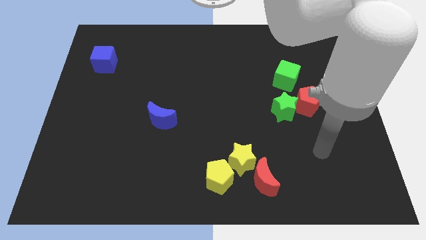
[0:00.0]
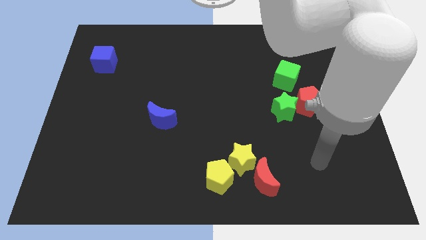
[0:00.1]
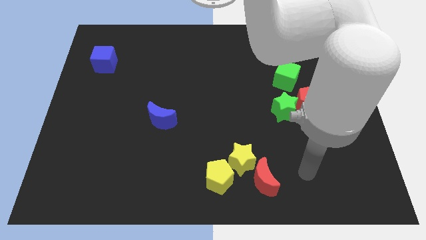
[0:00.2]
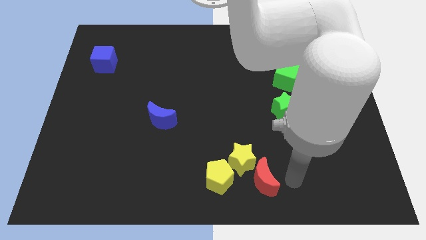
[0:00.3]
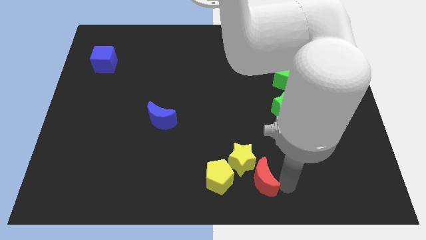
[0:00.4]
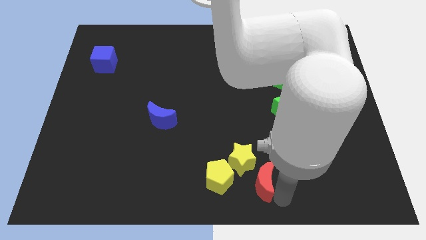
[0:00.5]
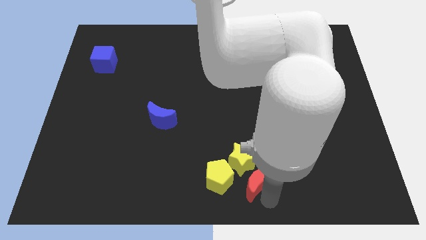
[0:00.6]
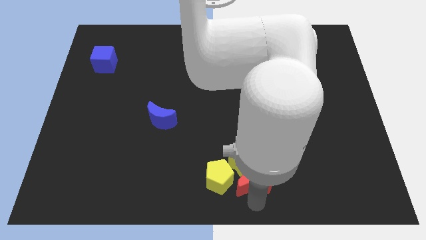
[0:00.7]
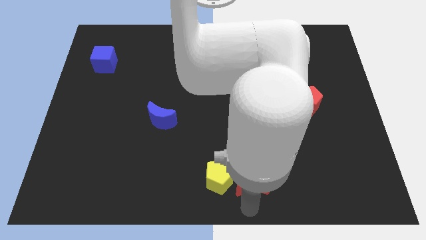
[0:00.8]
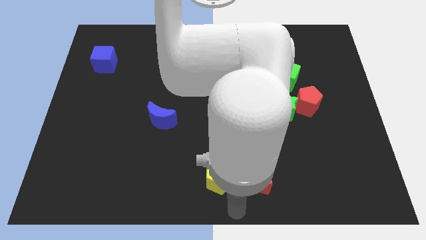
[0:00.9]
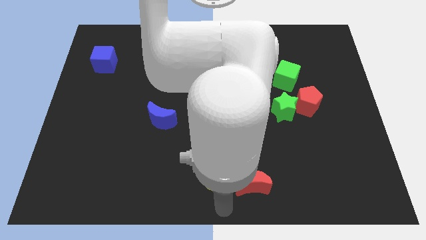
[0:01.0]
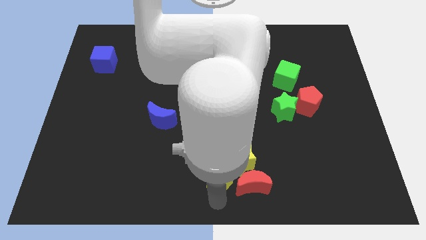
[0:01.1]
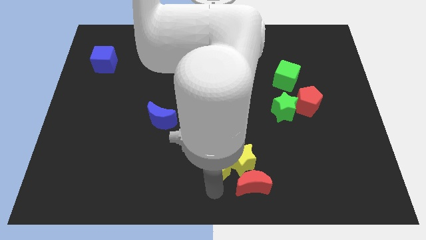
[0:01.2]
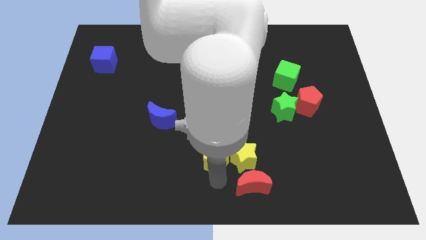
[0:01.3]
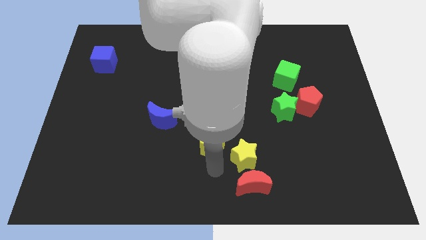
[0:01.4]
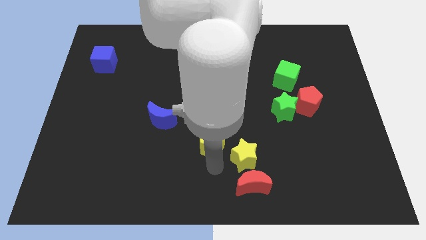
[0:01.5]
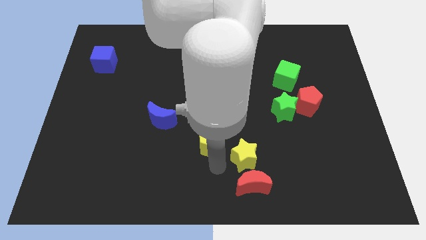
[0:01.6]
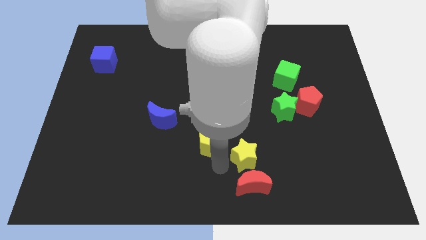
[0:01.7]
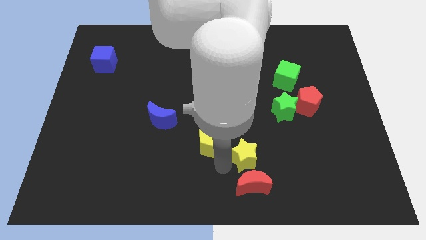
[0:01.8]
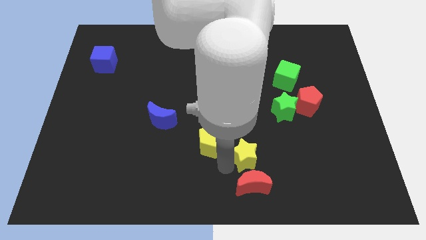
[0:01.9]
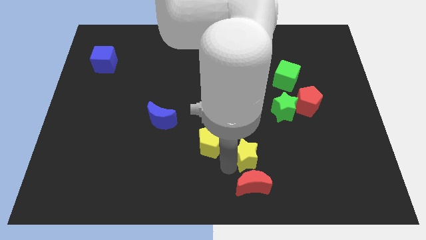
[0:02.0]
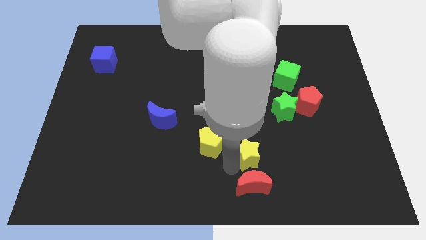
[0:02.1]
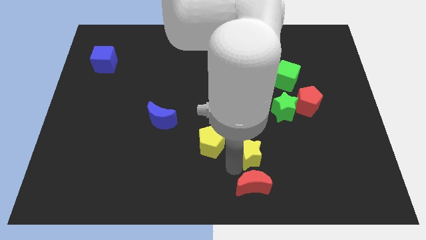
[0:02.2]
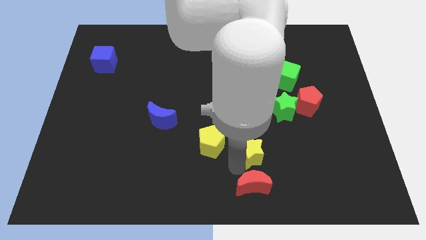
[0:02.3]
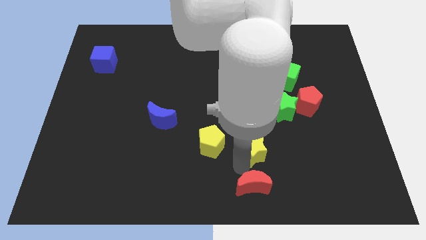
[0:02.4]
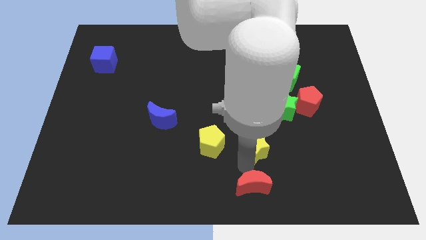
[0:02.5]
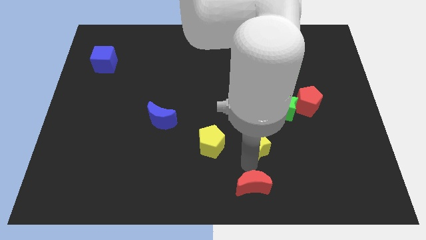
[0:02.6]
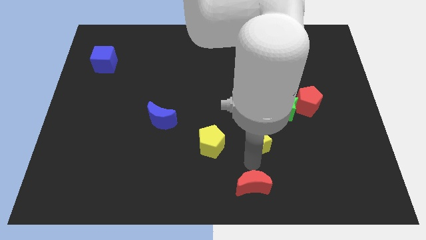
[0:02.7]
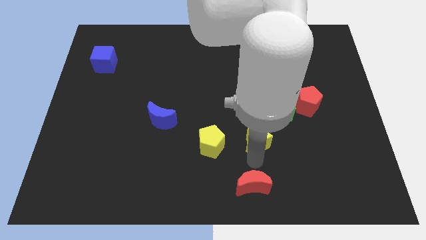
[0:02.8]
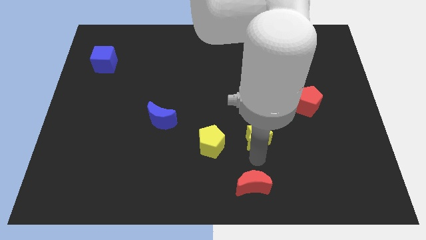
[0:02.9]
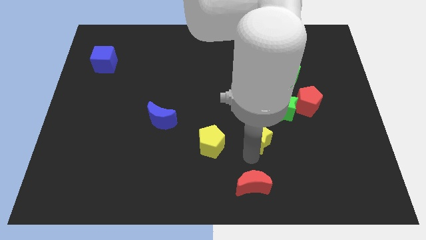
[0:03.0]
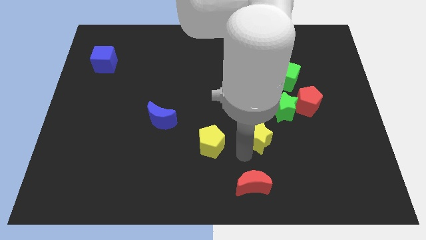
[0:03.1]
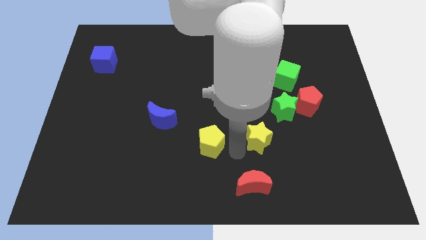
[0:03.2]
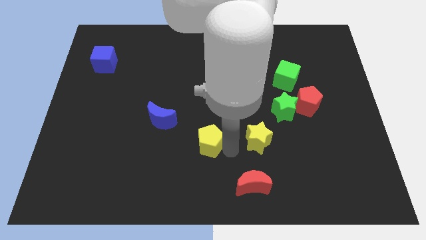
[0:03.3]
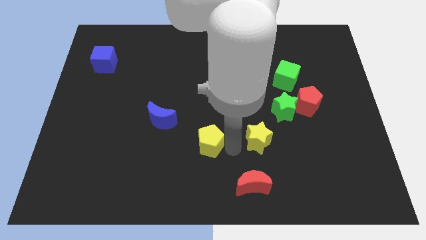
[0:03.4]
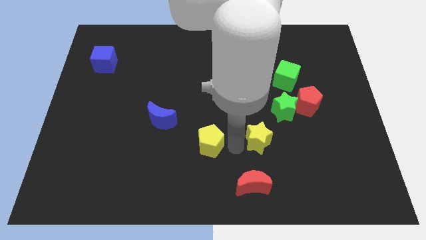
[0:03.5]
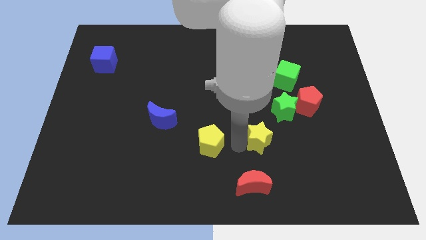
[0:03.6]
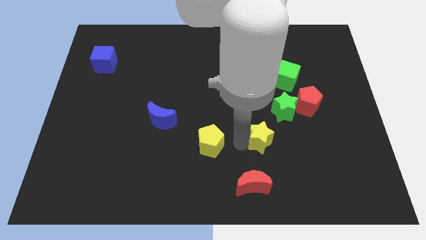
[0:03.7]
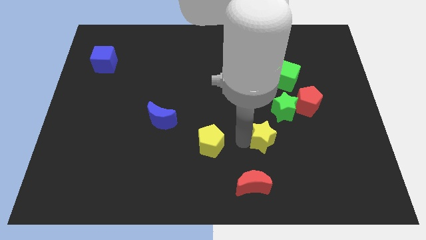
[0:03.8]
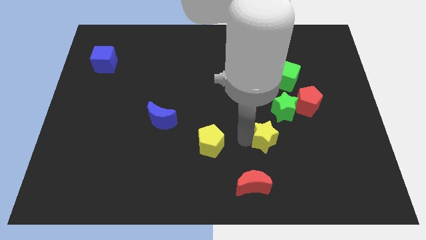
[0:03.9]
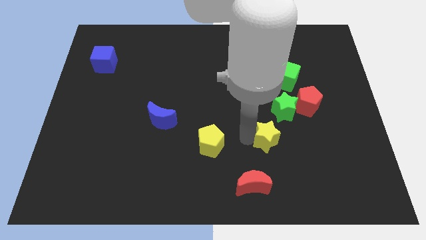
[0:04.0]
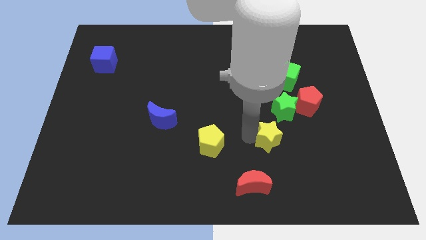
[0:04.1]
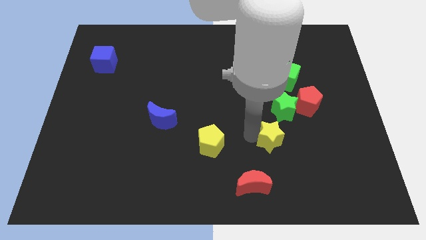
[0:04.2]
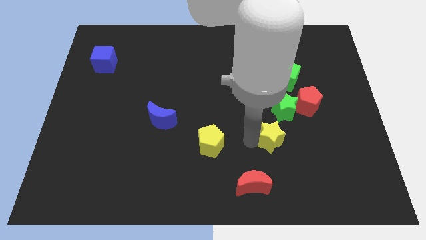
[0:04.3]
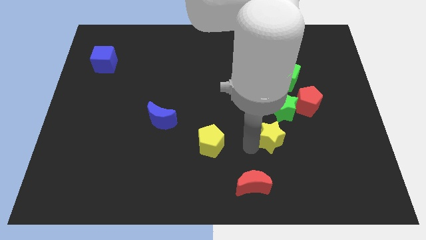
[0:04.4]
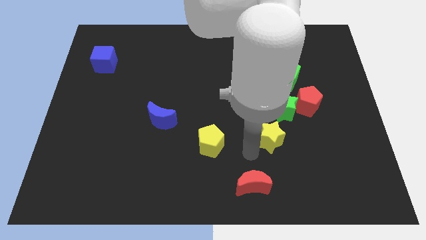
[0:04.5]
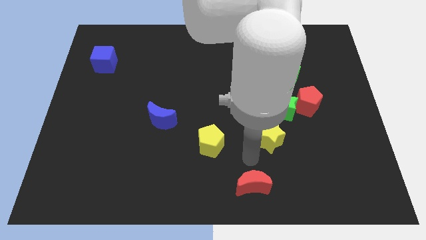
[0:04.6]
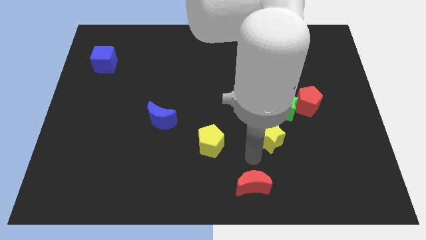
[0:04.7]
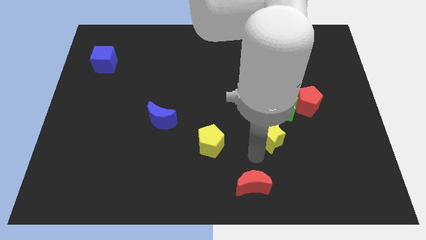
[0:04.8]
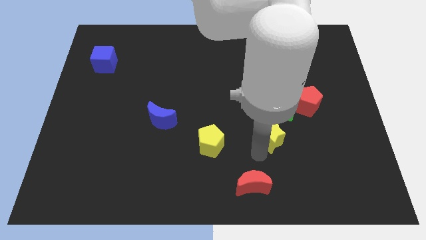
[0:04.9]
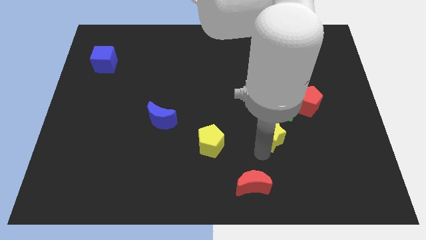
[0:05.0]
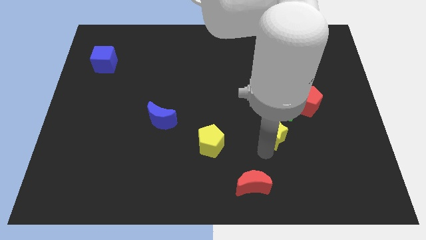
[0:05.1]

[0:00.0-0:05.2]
move the yellow star to the bottom left side of the red pentagon

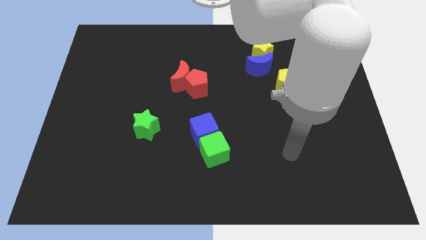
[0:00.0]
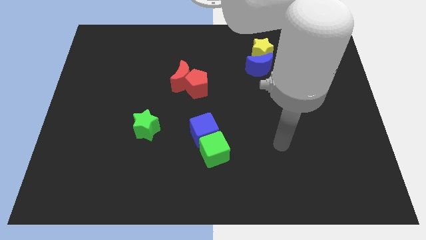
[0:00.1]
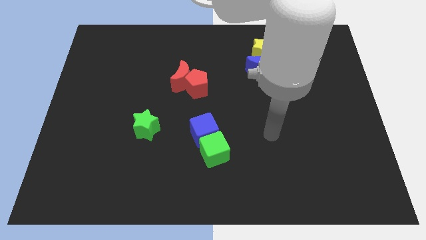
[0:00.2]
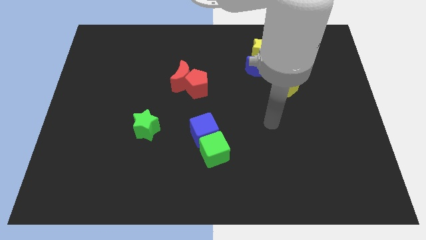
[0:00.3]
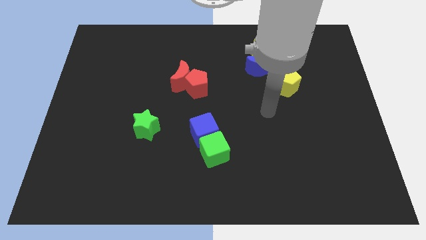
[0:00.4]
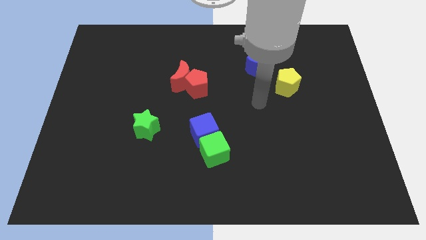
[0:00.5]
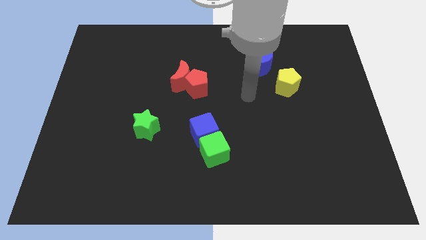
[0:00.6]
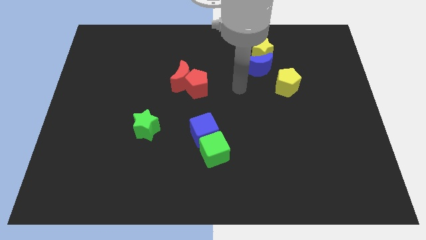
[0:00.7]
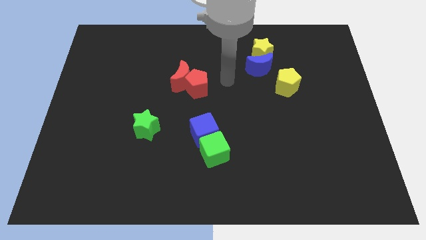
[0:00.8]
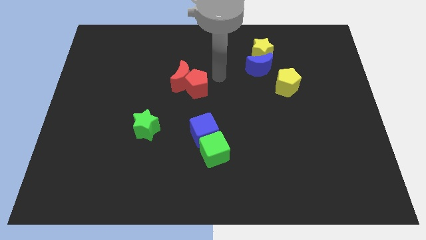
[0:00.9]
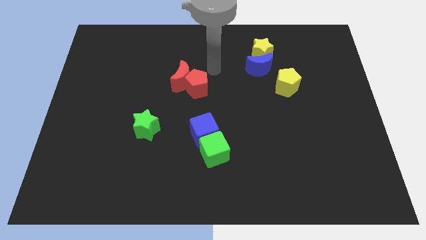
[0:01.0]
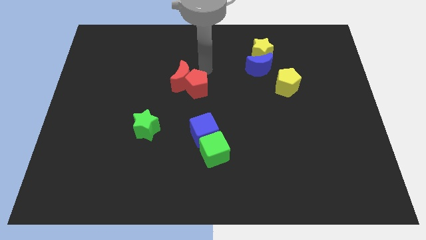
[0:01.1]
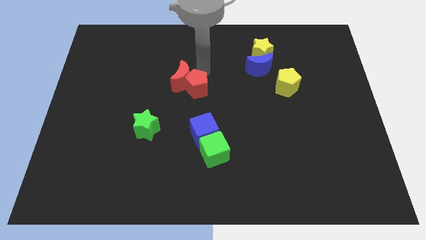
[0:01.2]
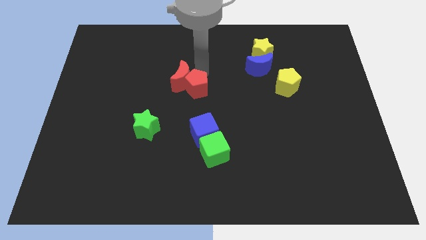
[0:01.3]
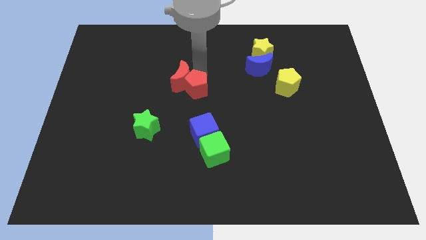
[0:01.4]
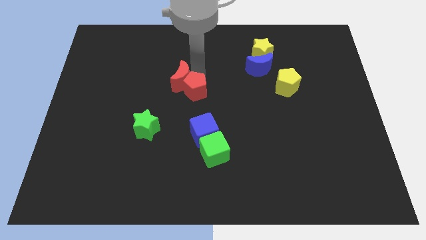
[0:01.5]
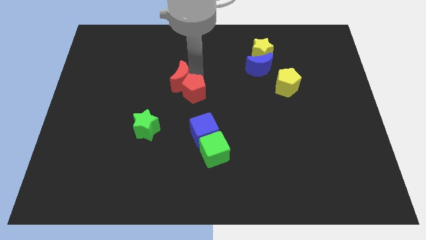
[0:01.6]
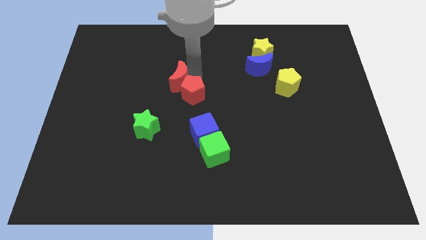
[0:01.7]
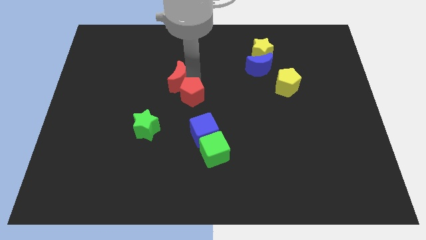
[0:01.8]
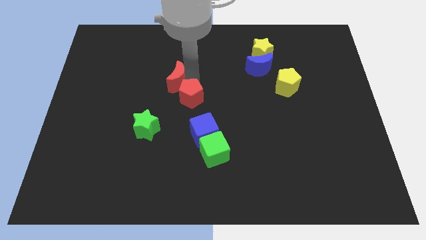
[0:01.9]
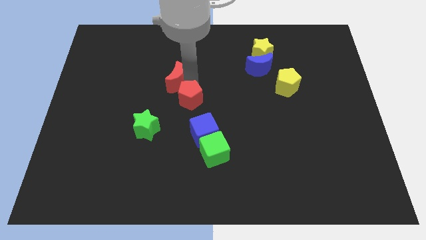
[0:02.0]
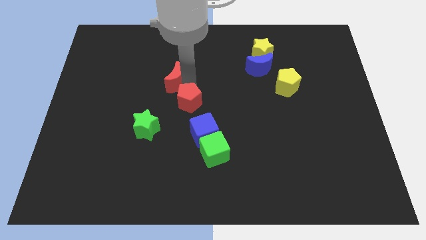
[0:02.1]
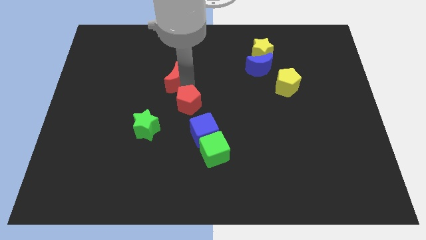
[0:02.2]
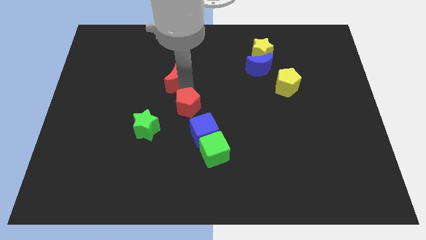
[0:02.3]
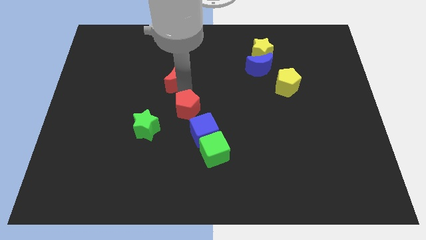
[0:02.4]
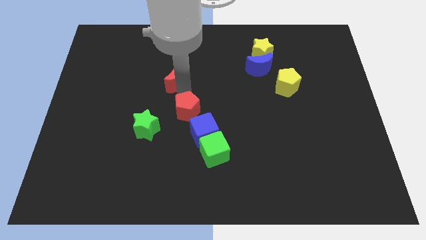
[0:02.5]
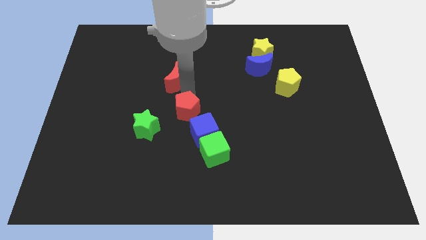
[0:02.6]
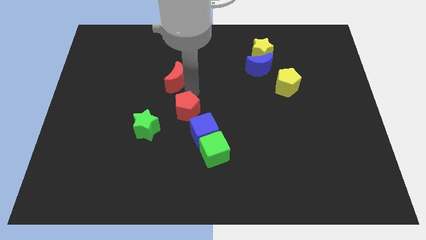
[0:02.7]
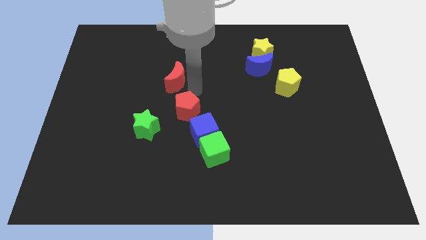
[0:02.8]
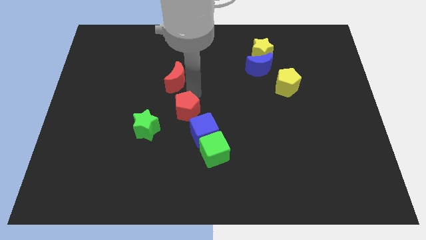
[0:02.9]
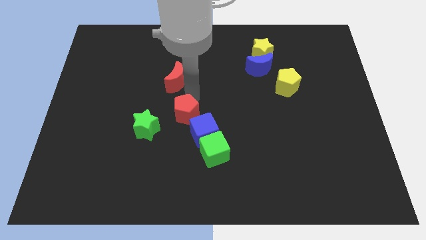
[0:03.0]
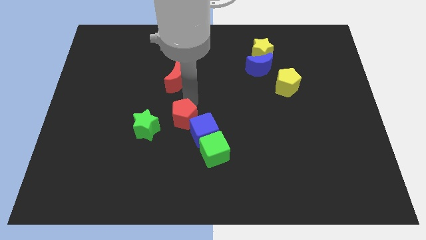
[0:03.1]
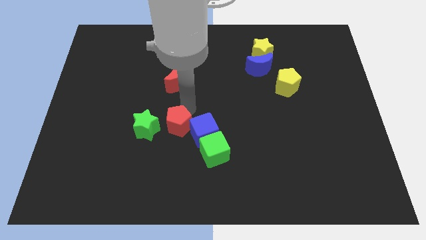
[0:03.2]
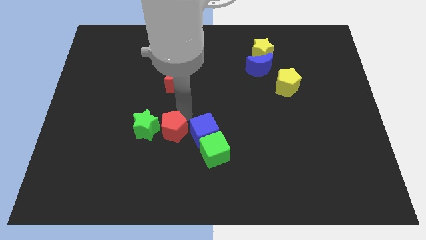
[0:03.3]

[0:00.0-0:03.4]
push the red pentagon to the bottom right of the green star
